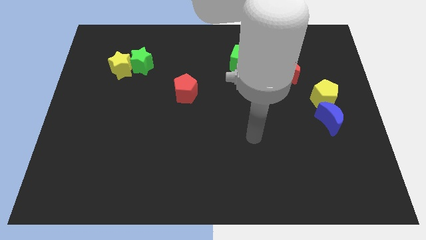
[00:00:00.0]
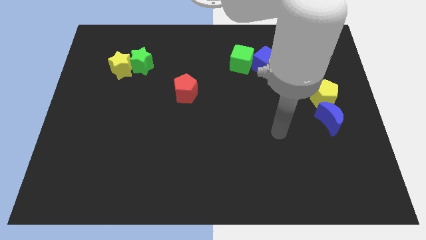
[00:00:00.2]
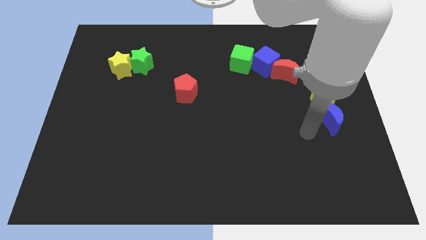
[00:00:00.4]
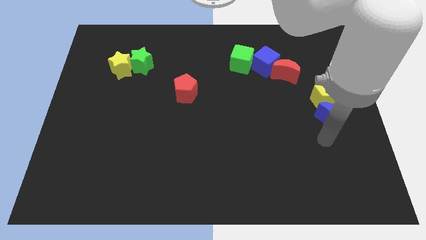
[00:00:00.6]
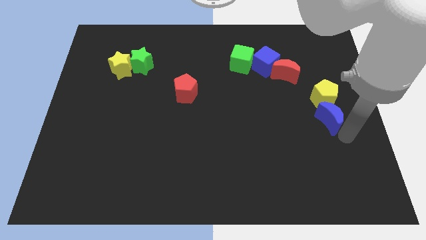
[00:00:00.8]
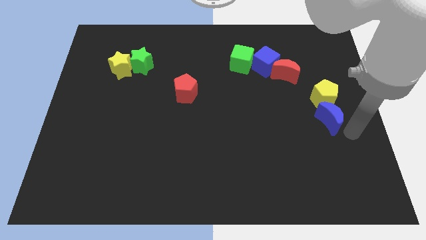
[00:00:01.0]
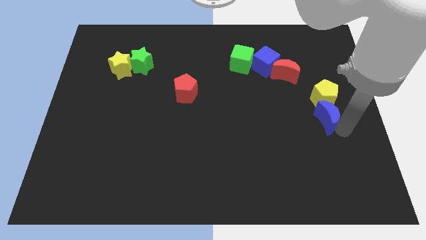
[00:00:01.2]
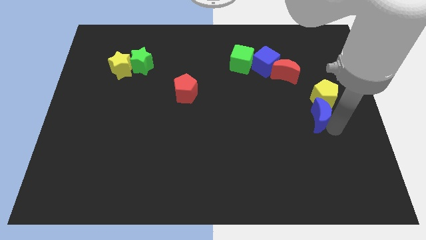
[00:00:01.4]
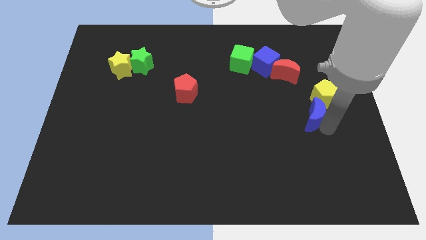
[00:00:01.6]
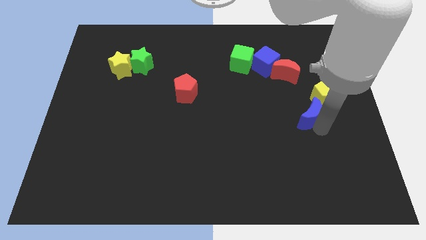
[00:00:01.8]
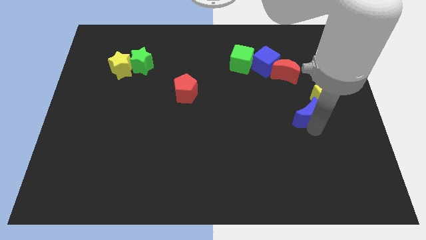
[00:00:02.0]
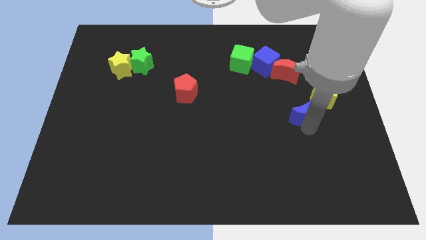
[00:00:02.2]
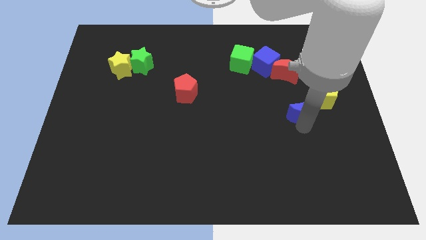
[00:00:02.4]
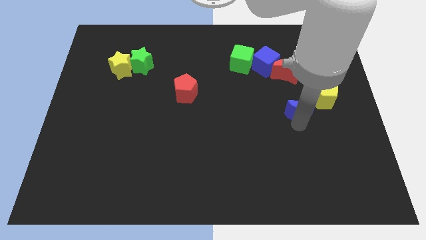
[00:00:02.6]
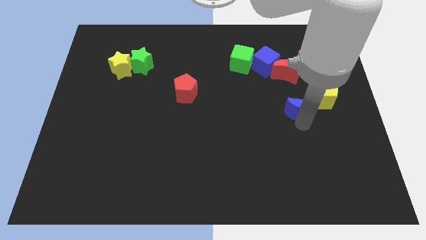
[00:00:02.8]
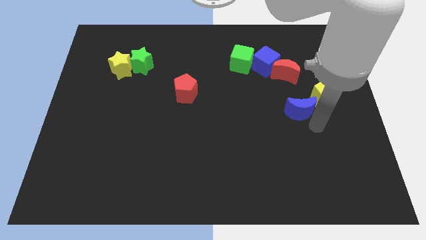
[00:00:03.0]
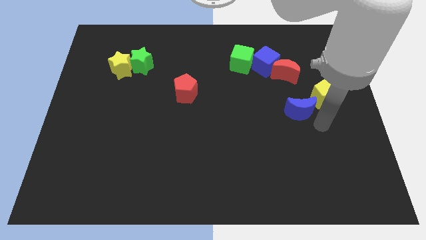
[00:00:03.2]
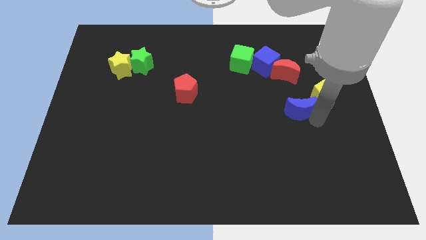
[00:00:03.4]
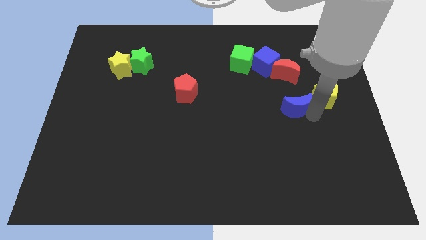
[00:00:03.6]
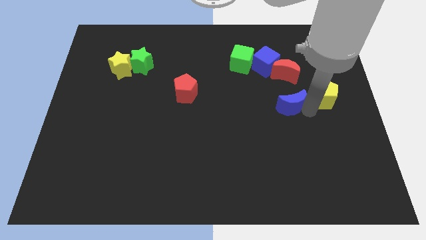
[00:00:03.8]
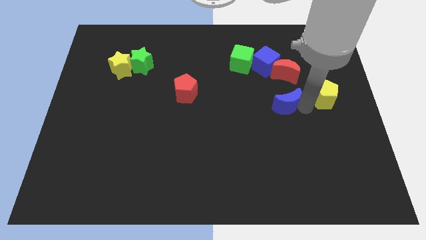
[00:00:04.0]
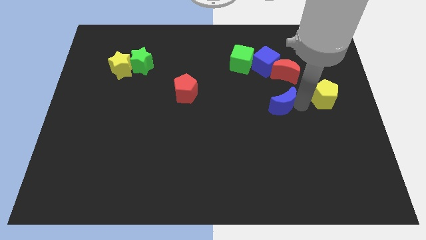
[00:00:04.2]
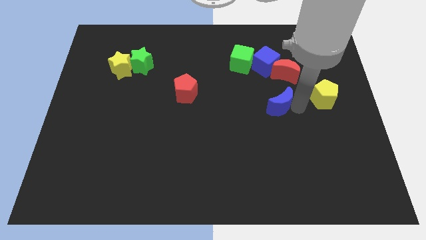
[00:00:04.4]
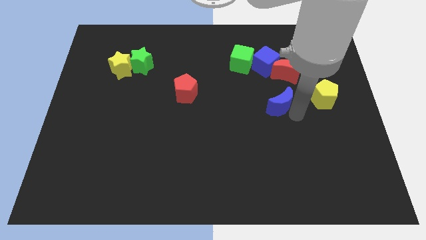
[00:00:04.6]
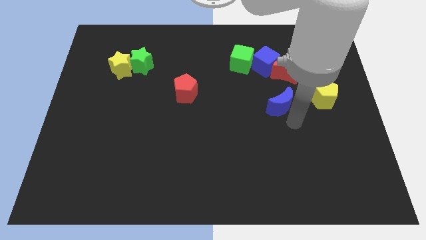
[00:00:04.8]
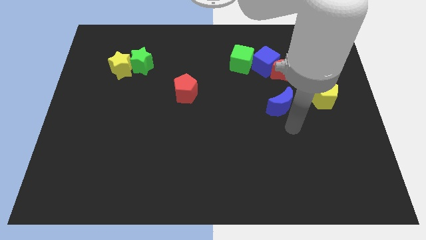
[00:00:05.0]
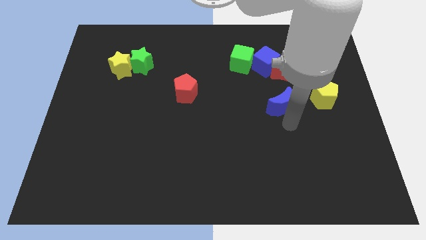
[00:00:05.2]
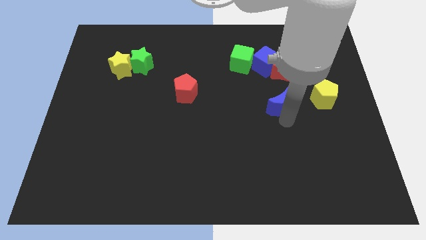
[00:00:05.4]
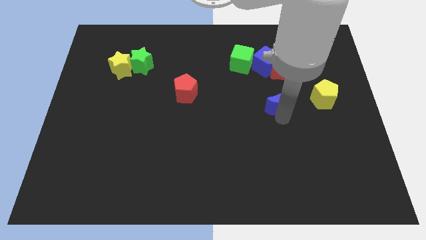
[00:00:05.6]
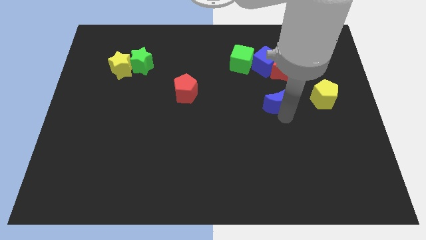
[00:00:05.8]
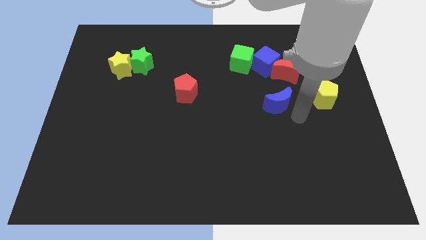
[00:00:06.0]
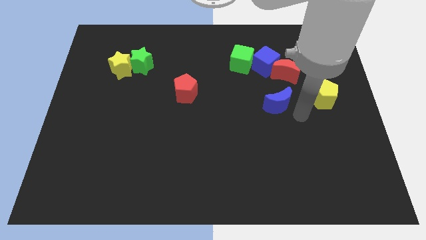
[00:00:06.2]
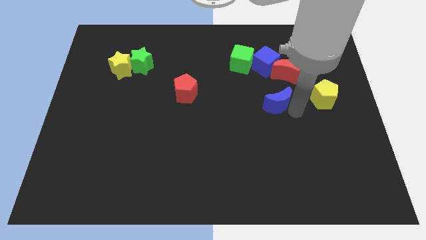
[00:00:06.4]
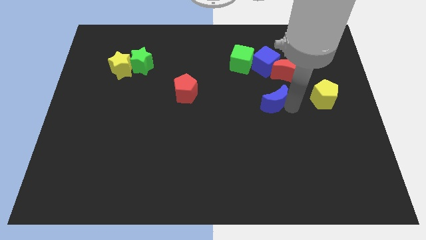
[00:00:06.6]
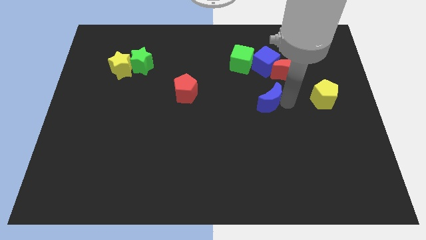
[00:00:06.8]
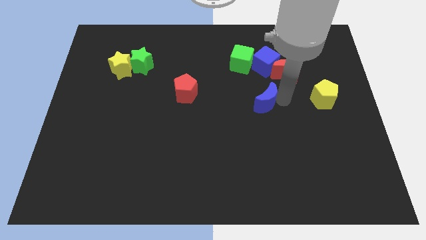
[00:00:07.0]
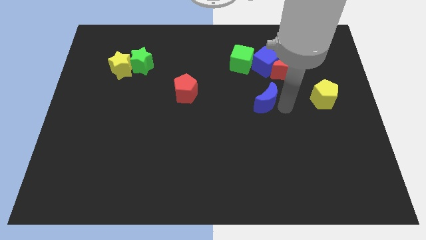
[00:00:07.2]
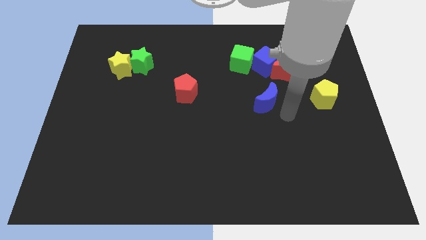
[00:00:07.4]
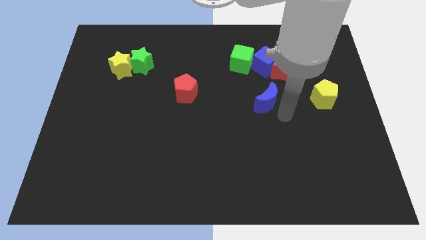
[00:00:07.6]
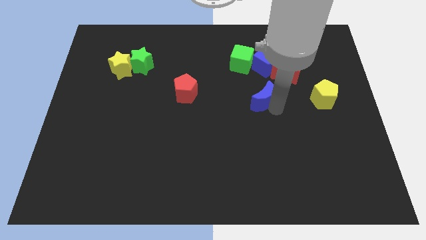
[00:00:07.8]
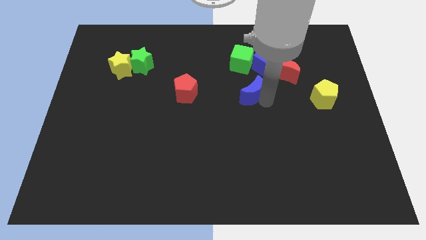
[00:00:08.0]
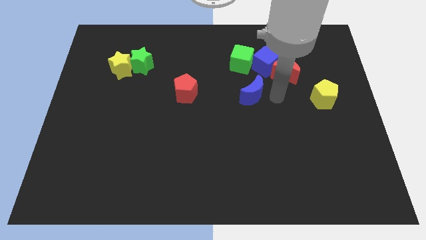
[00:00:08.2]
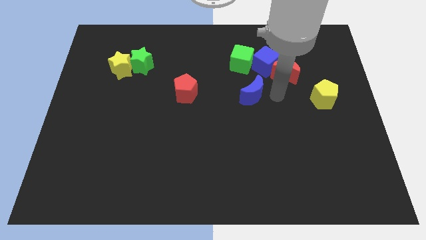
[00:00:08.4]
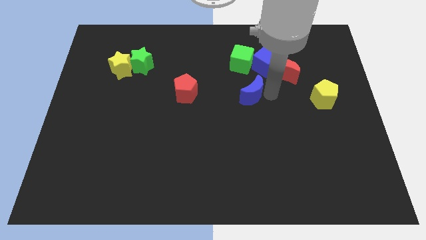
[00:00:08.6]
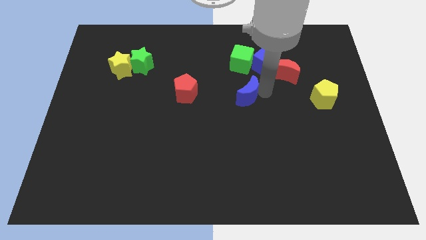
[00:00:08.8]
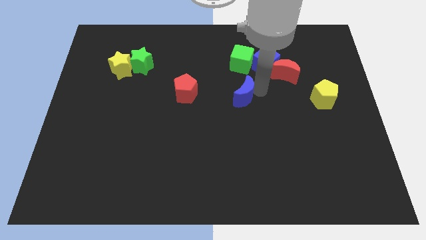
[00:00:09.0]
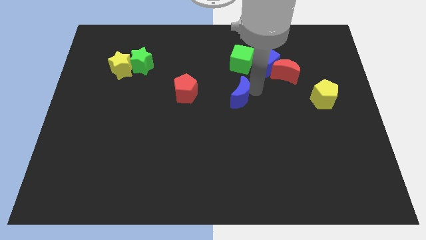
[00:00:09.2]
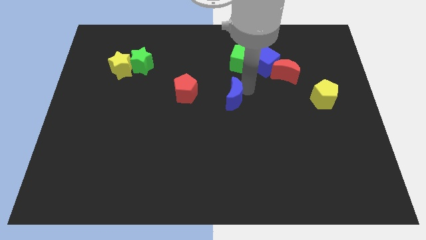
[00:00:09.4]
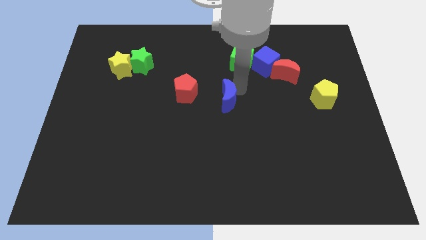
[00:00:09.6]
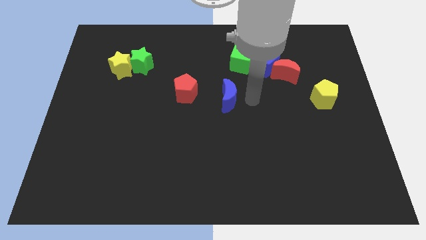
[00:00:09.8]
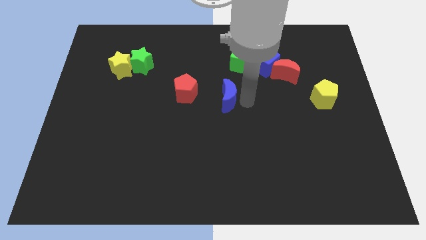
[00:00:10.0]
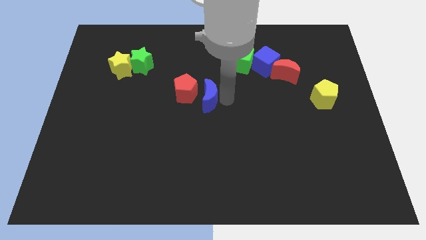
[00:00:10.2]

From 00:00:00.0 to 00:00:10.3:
slide the blue moon next to the red pentagon

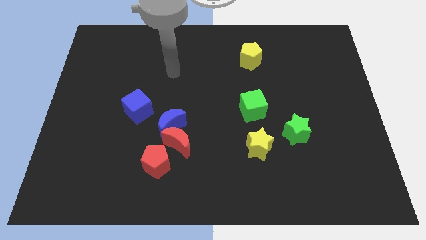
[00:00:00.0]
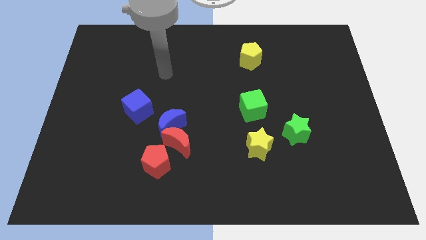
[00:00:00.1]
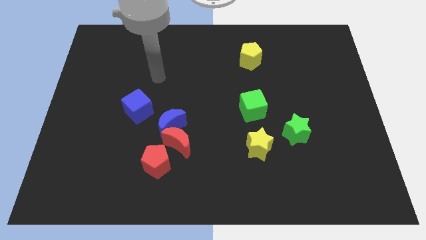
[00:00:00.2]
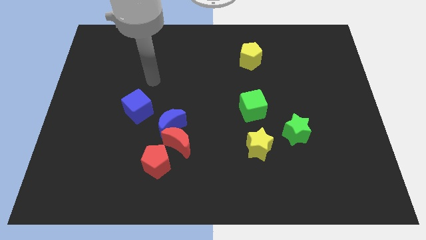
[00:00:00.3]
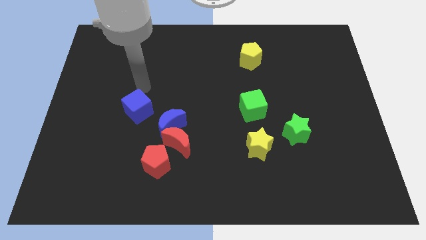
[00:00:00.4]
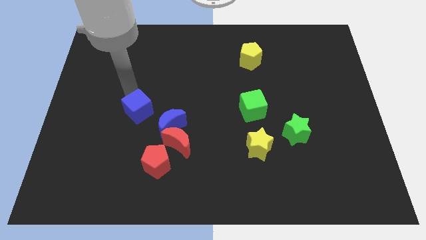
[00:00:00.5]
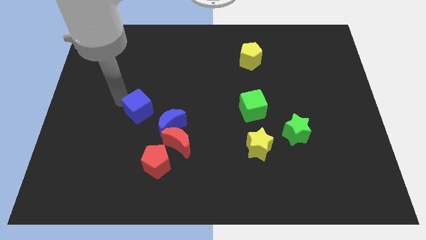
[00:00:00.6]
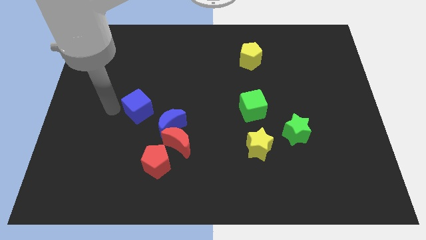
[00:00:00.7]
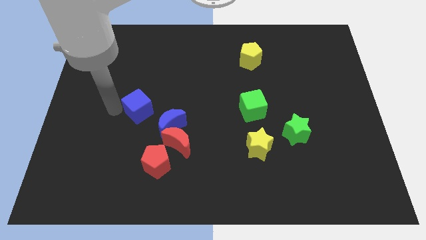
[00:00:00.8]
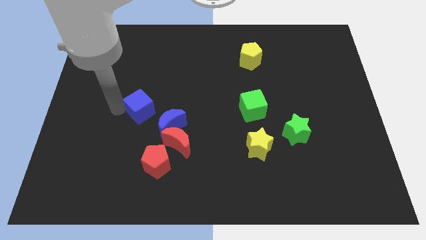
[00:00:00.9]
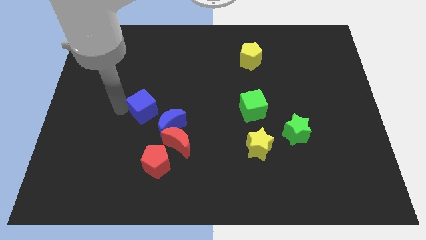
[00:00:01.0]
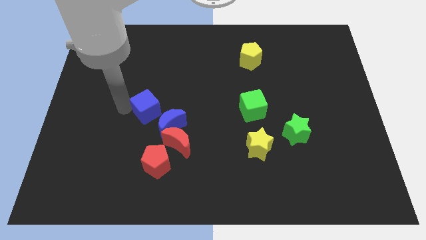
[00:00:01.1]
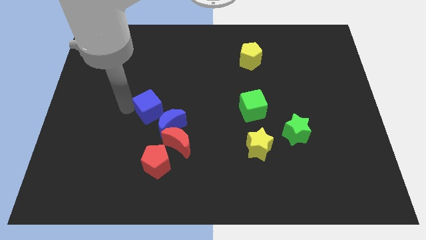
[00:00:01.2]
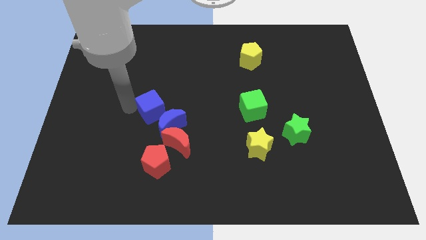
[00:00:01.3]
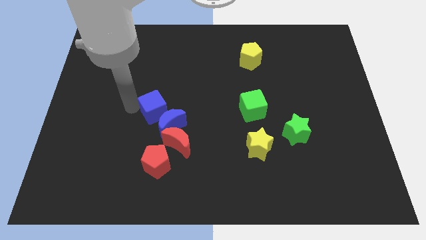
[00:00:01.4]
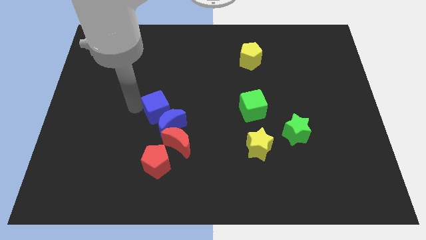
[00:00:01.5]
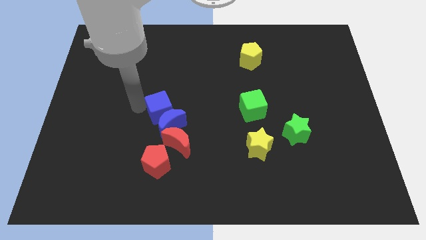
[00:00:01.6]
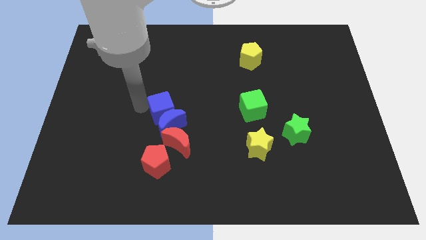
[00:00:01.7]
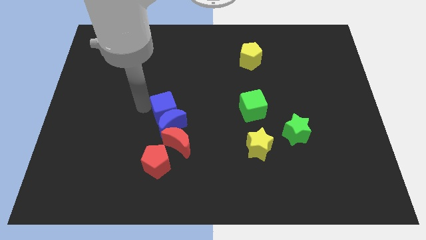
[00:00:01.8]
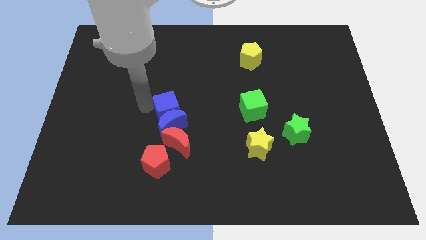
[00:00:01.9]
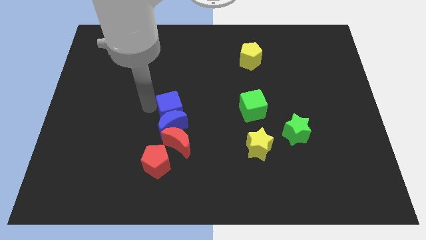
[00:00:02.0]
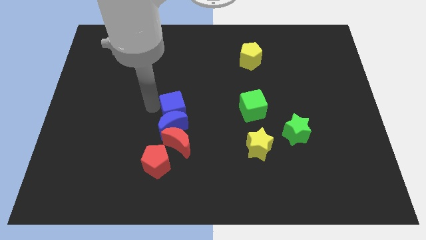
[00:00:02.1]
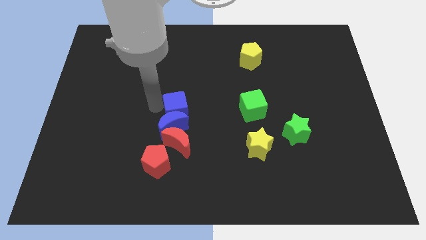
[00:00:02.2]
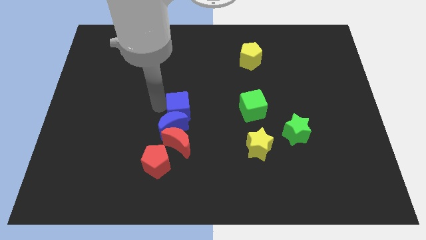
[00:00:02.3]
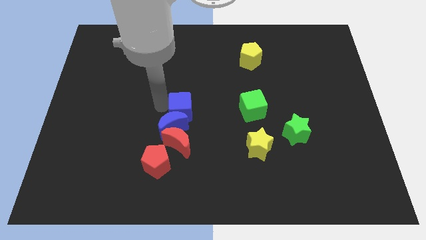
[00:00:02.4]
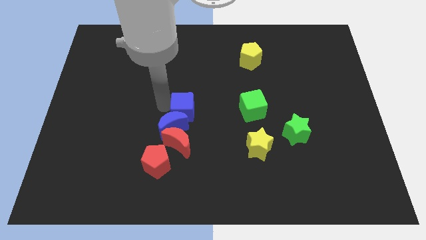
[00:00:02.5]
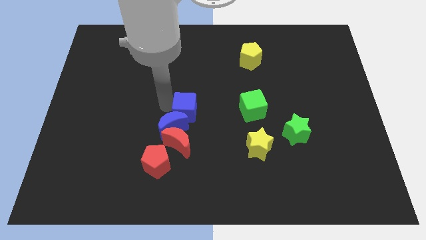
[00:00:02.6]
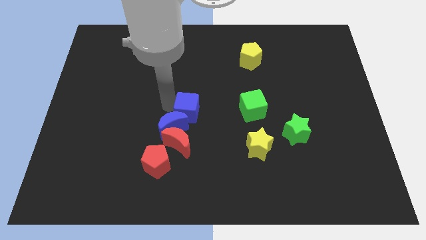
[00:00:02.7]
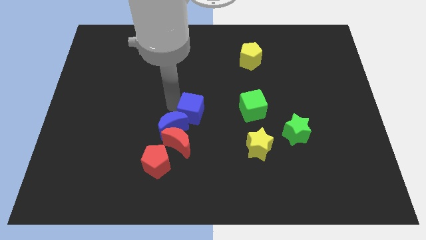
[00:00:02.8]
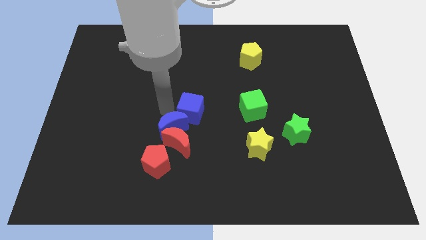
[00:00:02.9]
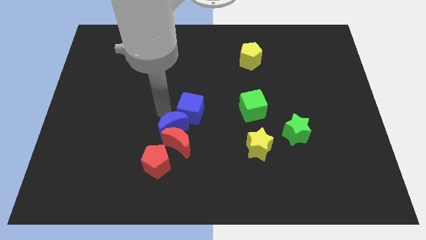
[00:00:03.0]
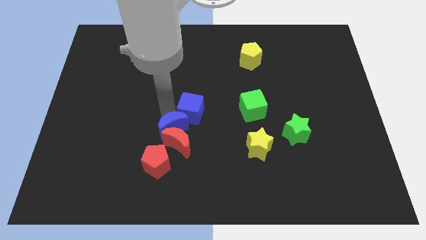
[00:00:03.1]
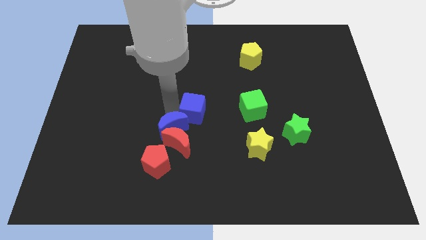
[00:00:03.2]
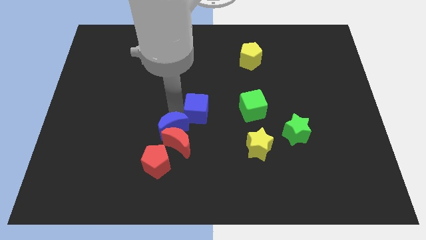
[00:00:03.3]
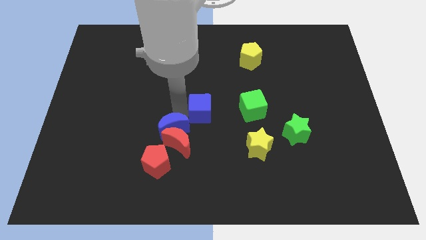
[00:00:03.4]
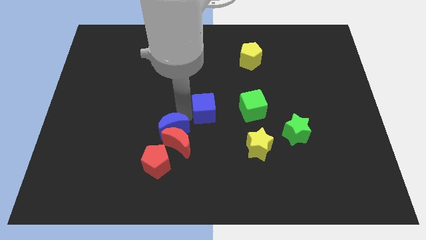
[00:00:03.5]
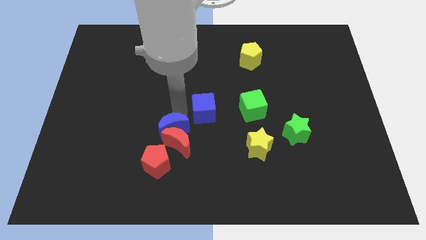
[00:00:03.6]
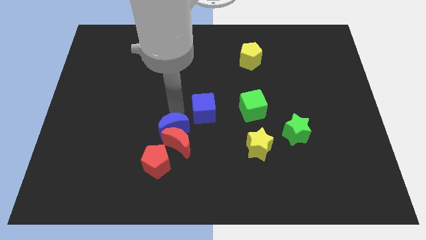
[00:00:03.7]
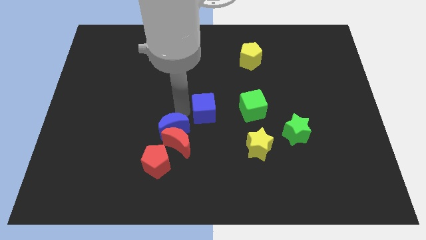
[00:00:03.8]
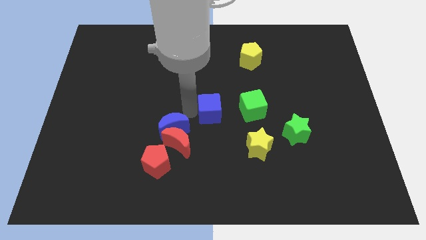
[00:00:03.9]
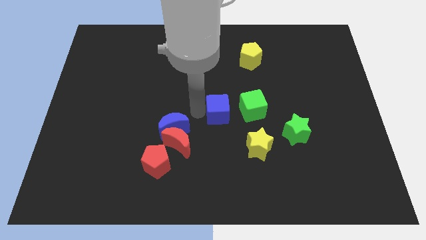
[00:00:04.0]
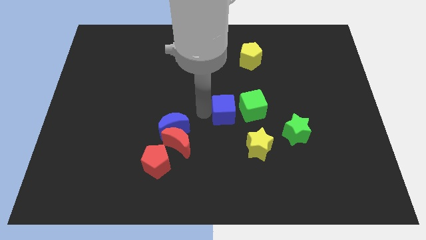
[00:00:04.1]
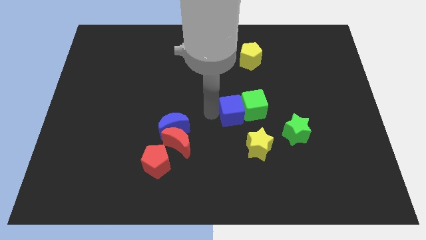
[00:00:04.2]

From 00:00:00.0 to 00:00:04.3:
move the blue cube towards the green cube
